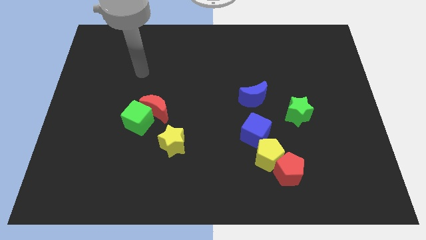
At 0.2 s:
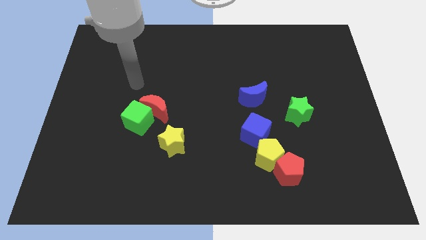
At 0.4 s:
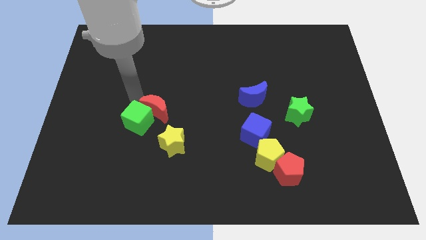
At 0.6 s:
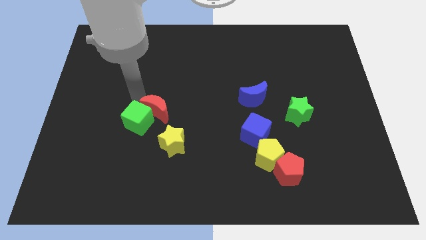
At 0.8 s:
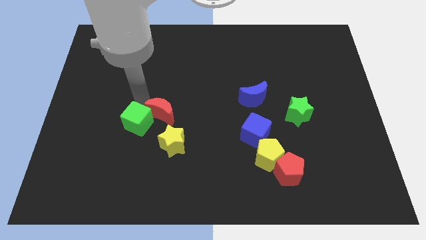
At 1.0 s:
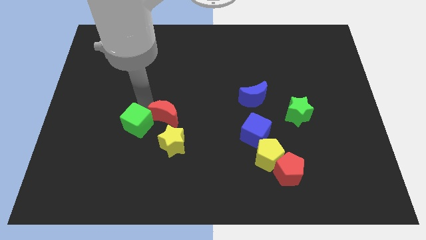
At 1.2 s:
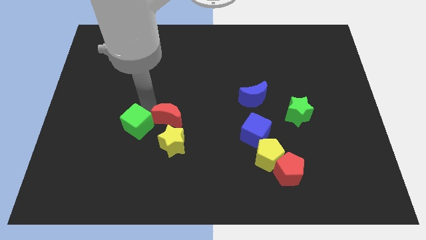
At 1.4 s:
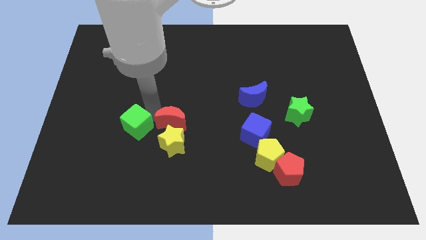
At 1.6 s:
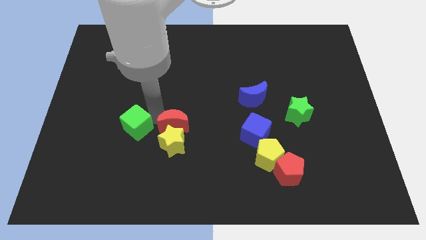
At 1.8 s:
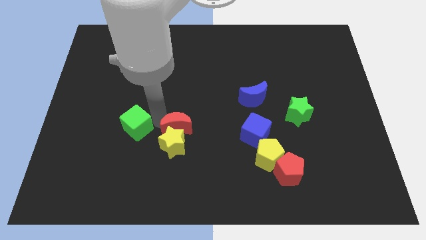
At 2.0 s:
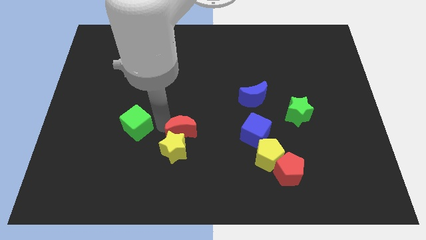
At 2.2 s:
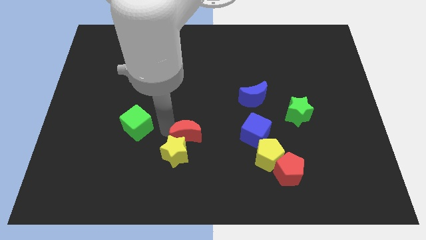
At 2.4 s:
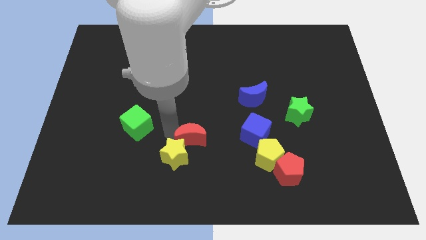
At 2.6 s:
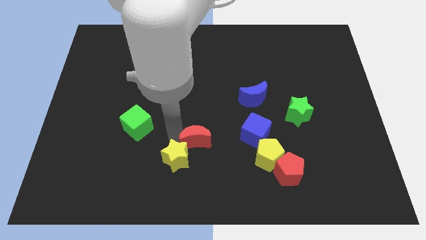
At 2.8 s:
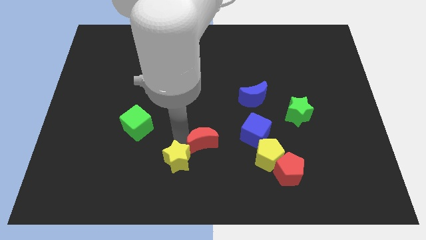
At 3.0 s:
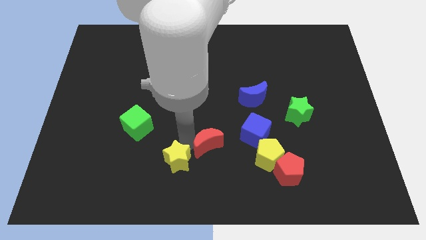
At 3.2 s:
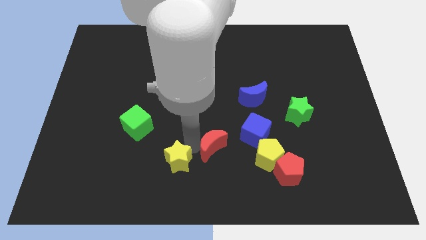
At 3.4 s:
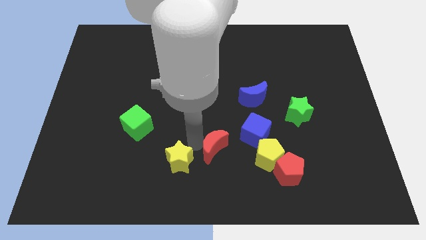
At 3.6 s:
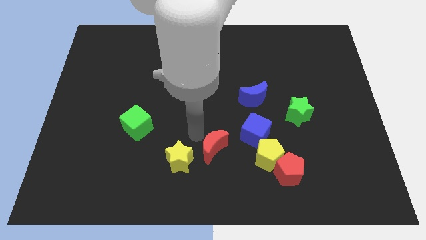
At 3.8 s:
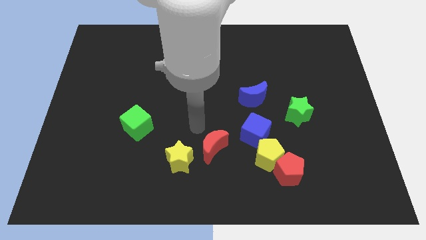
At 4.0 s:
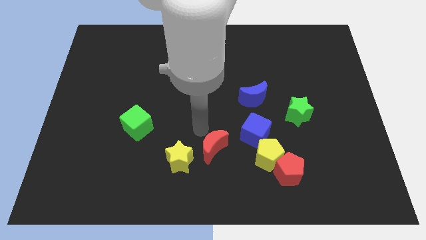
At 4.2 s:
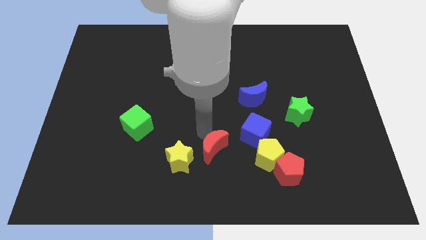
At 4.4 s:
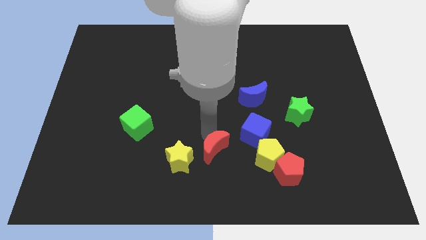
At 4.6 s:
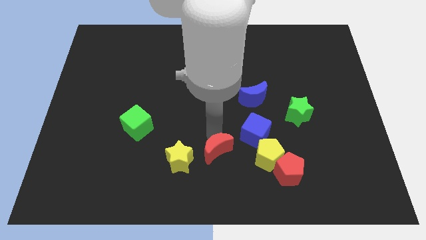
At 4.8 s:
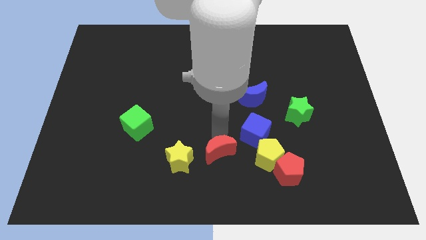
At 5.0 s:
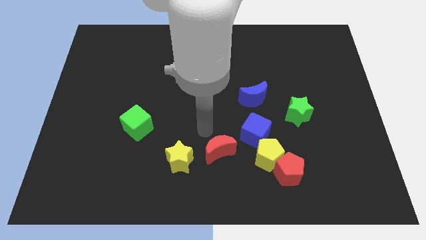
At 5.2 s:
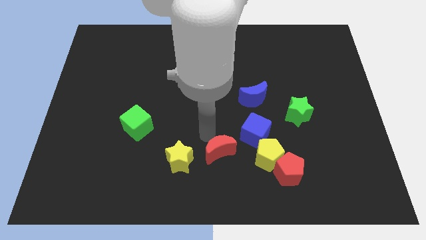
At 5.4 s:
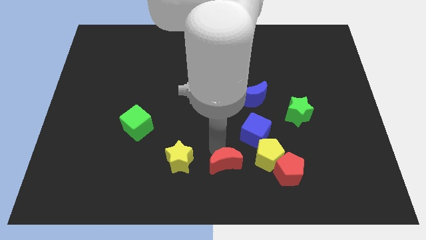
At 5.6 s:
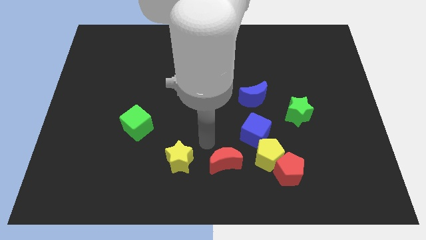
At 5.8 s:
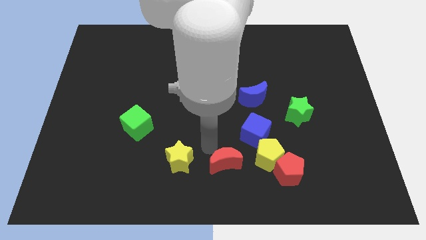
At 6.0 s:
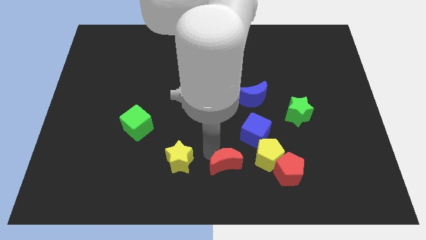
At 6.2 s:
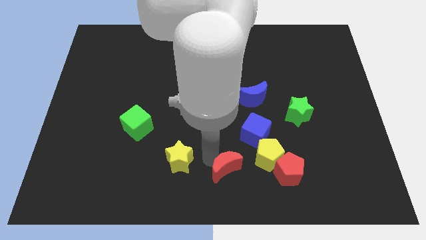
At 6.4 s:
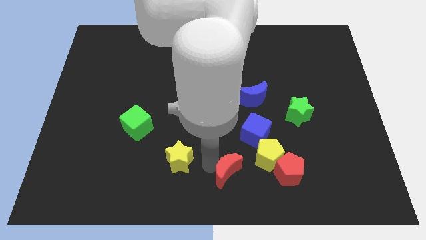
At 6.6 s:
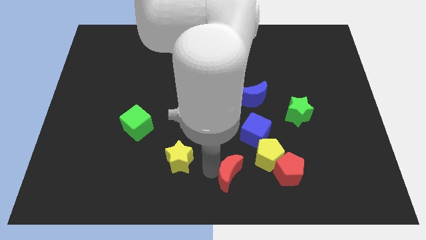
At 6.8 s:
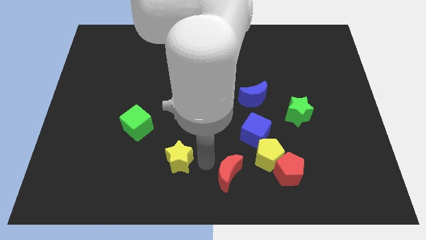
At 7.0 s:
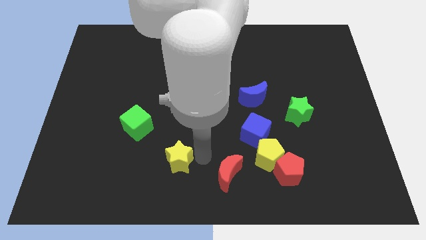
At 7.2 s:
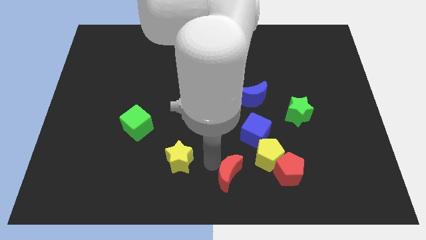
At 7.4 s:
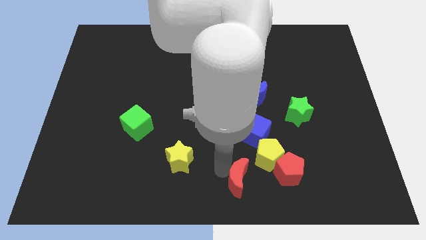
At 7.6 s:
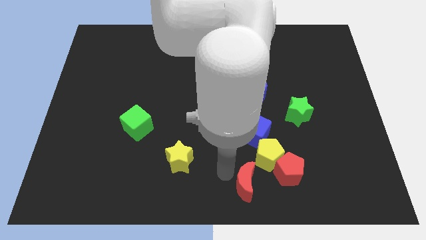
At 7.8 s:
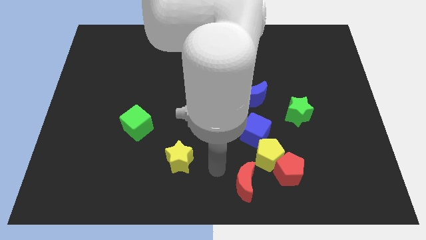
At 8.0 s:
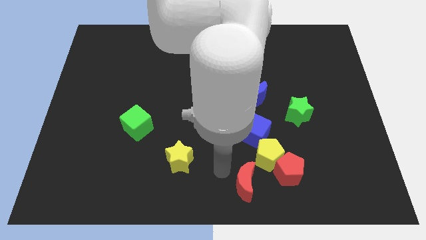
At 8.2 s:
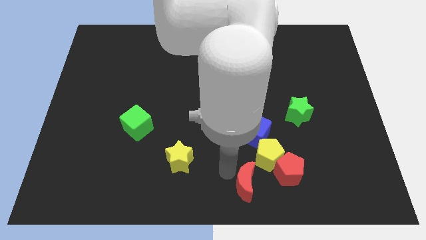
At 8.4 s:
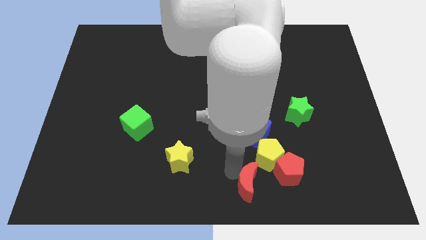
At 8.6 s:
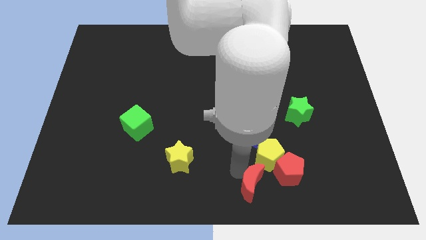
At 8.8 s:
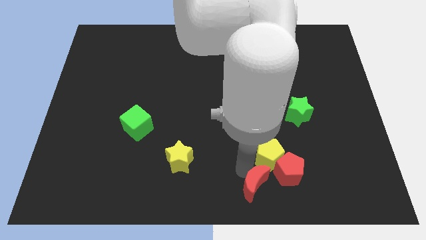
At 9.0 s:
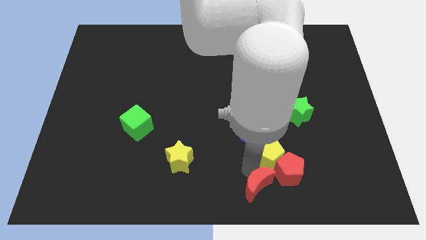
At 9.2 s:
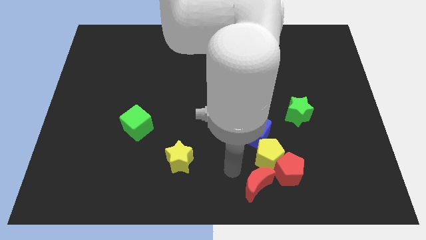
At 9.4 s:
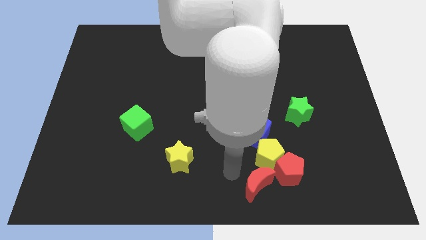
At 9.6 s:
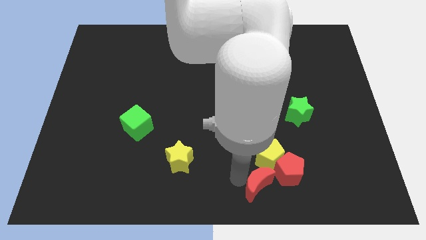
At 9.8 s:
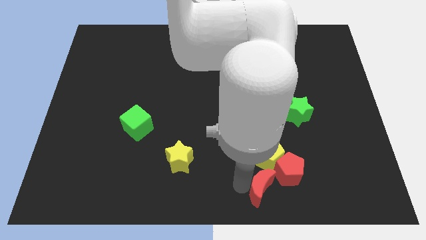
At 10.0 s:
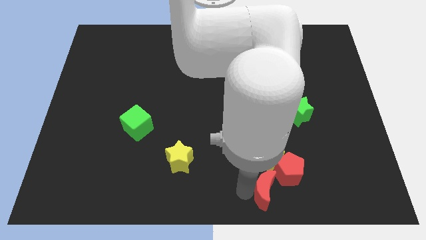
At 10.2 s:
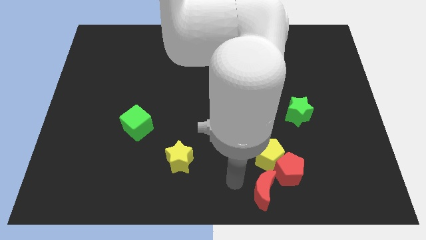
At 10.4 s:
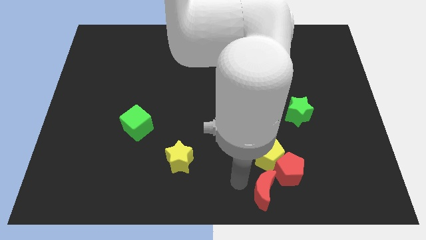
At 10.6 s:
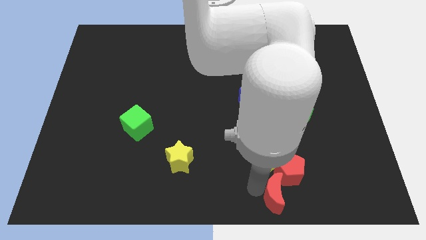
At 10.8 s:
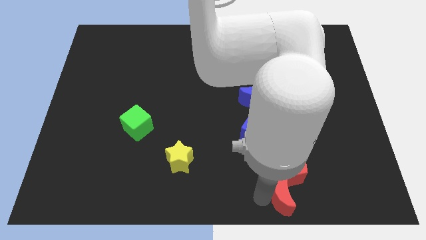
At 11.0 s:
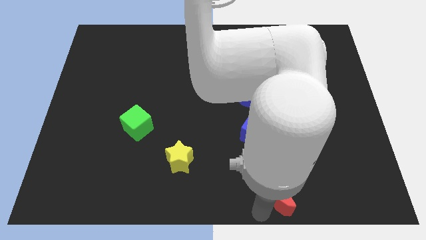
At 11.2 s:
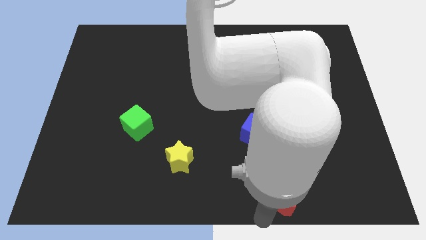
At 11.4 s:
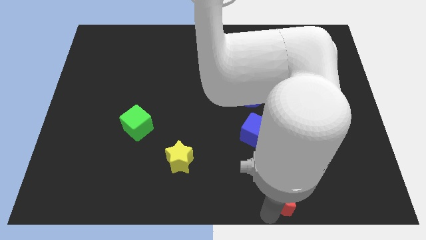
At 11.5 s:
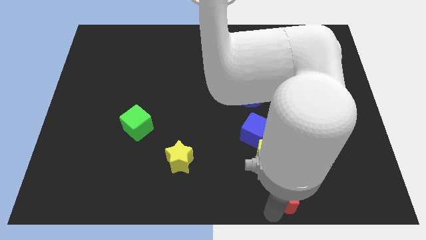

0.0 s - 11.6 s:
push the red moon diagonally down and to the right of the yellow pentagon

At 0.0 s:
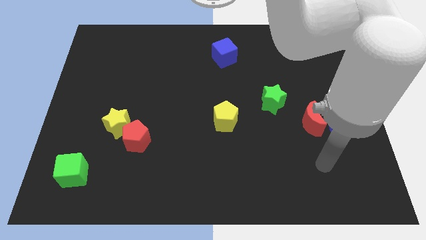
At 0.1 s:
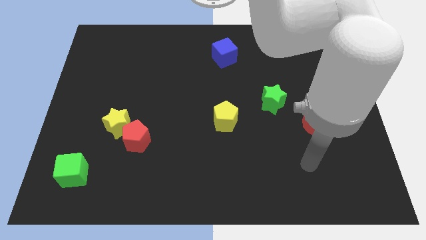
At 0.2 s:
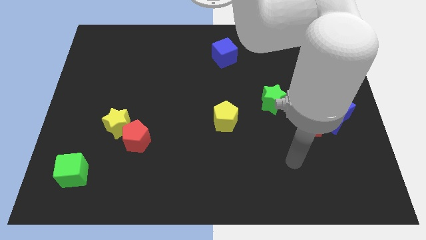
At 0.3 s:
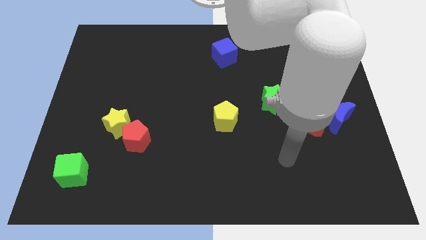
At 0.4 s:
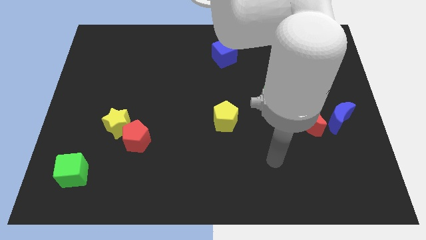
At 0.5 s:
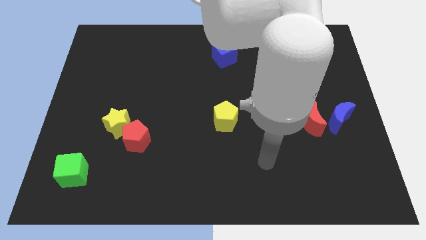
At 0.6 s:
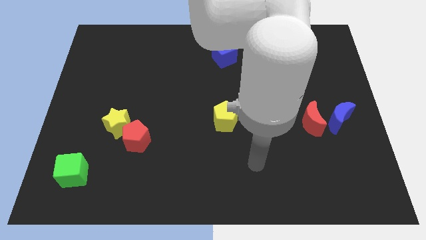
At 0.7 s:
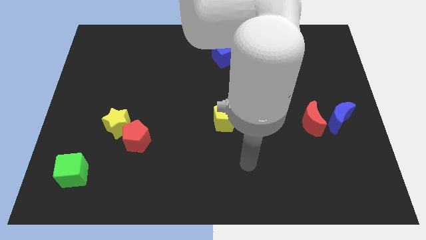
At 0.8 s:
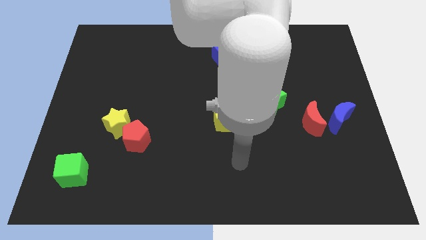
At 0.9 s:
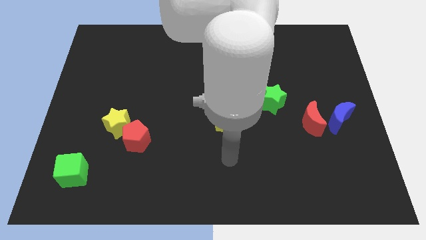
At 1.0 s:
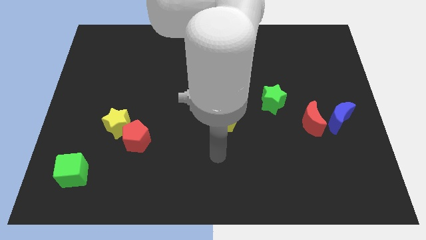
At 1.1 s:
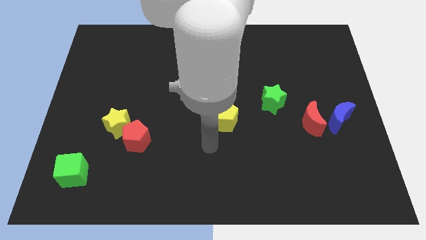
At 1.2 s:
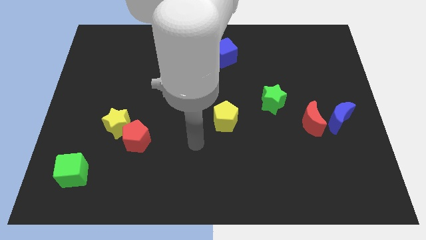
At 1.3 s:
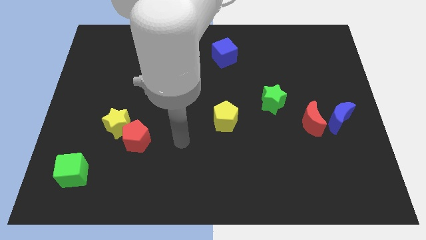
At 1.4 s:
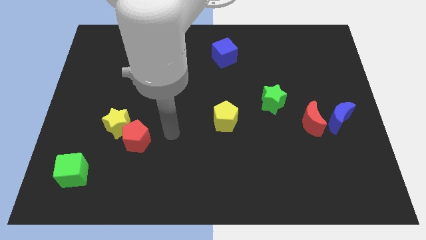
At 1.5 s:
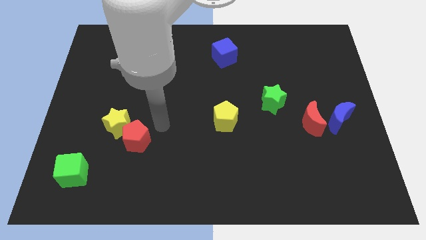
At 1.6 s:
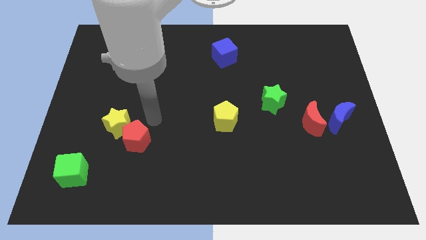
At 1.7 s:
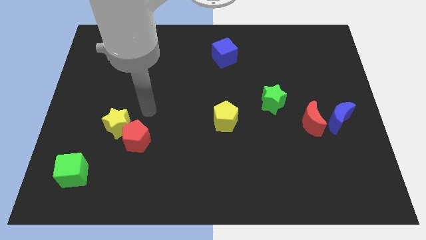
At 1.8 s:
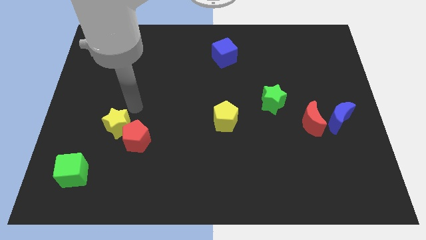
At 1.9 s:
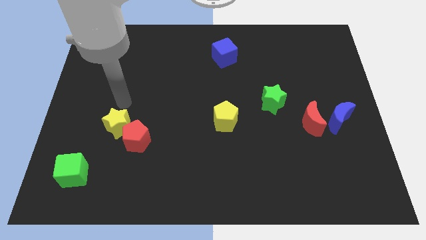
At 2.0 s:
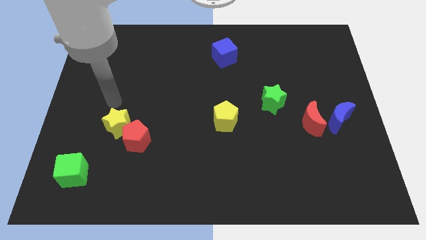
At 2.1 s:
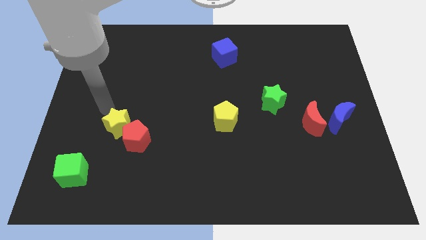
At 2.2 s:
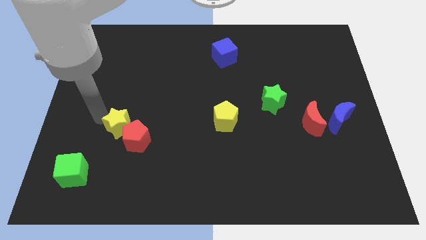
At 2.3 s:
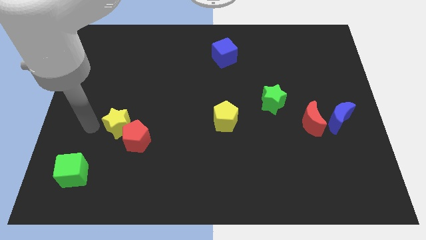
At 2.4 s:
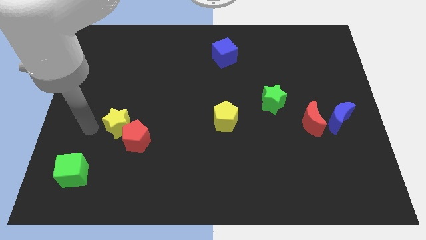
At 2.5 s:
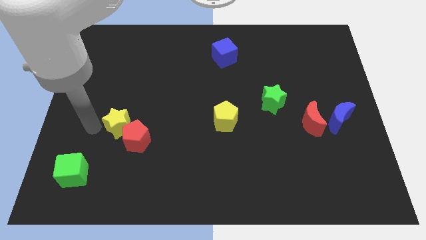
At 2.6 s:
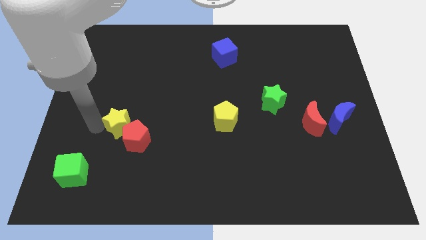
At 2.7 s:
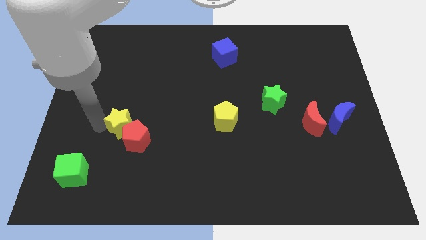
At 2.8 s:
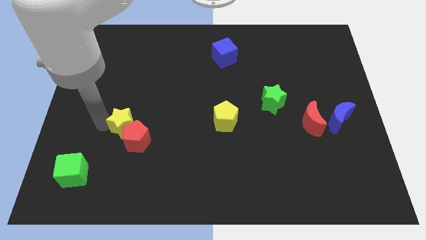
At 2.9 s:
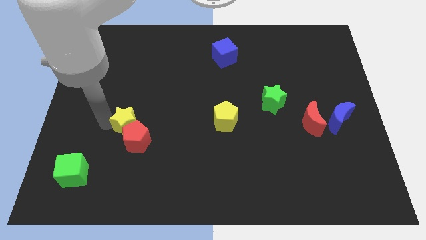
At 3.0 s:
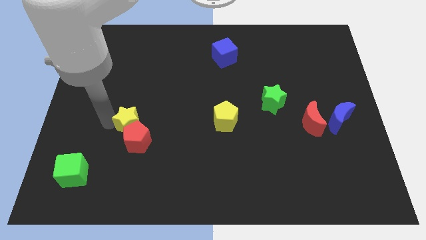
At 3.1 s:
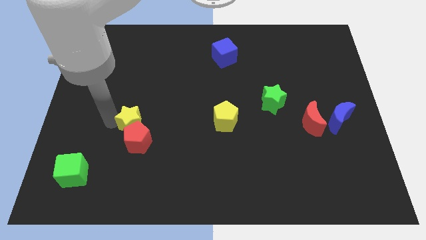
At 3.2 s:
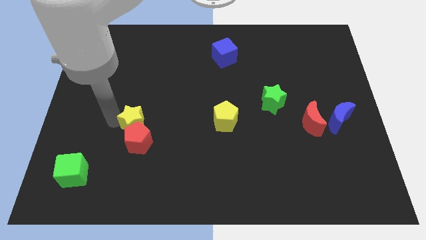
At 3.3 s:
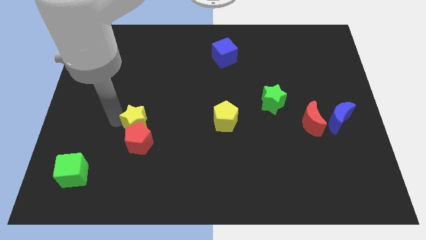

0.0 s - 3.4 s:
slide the yellow star to the top right of the red pentagon
